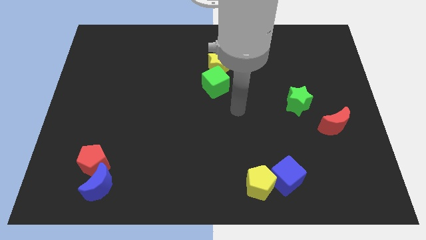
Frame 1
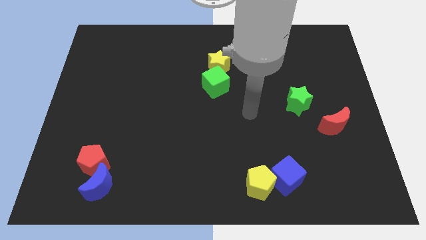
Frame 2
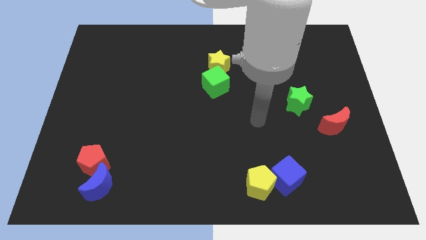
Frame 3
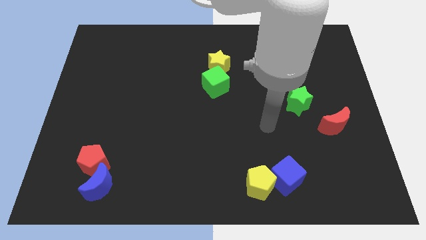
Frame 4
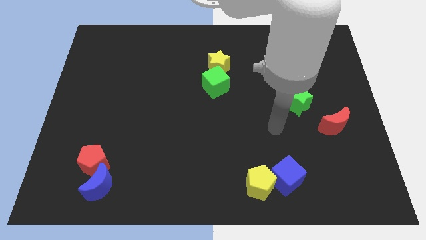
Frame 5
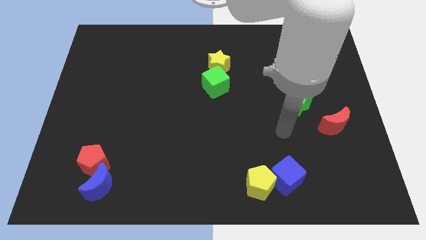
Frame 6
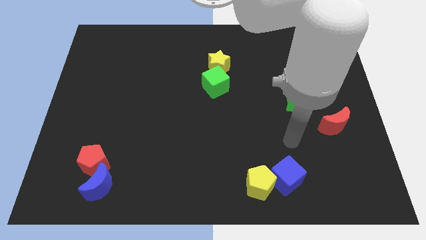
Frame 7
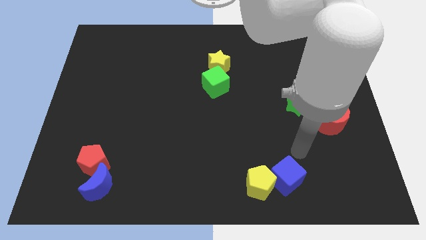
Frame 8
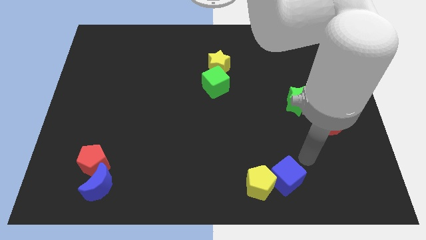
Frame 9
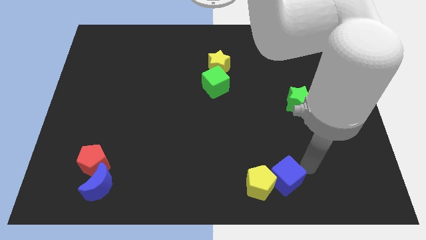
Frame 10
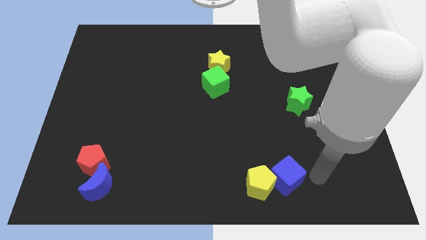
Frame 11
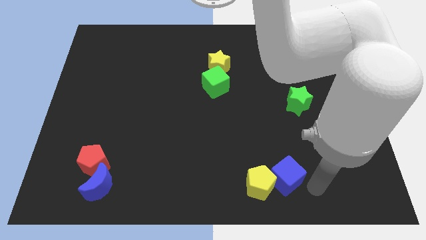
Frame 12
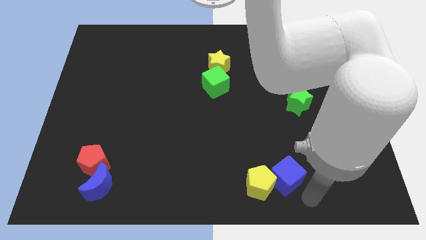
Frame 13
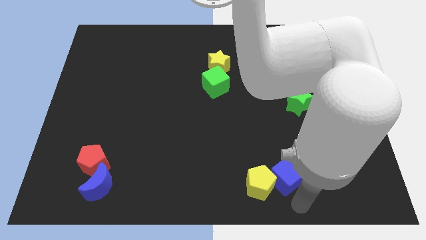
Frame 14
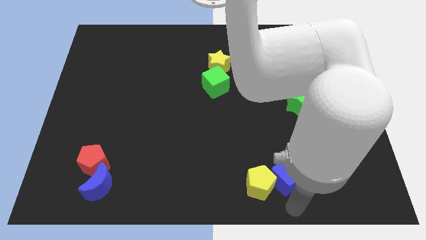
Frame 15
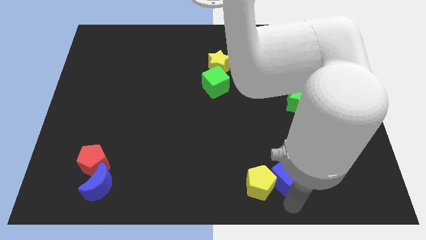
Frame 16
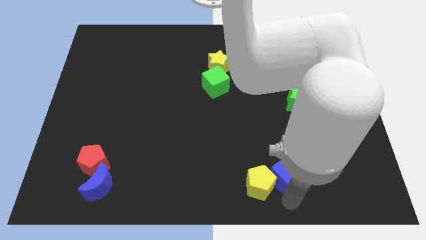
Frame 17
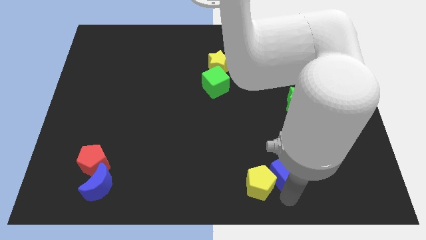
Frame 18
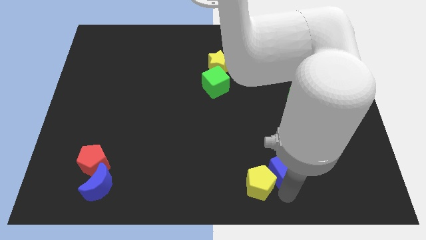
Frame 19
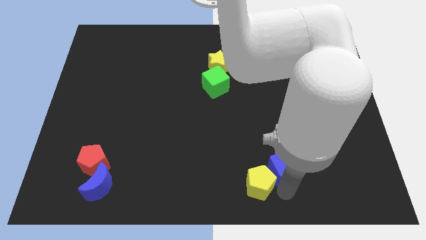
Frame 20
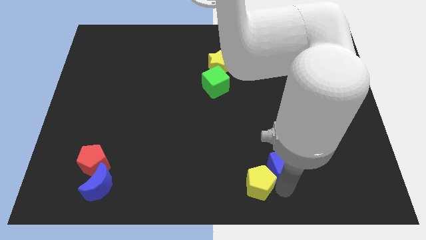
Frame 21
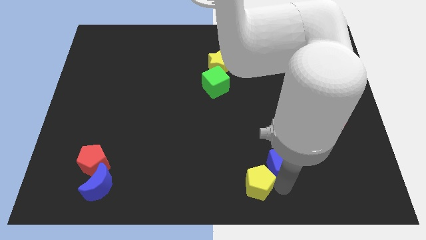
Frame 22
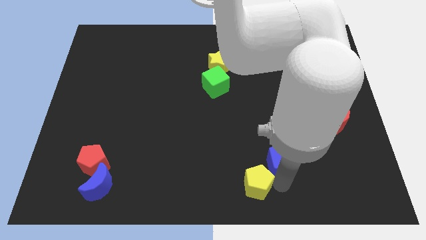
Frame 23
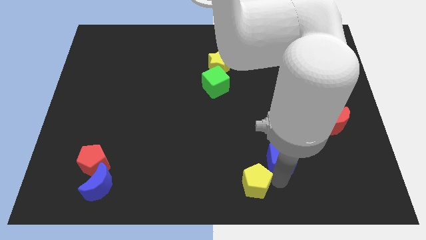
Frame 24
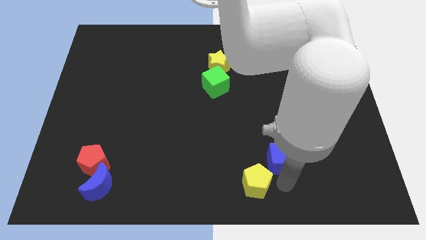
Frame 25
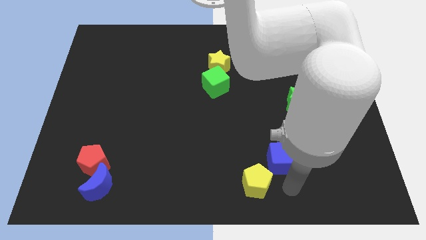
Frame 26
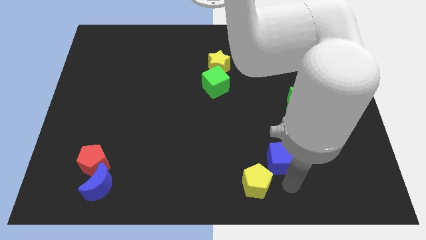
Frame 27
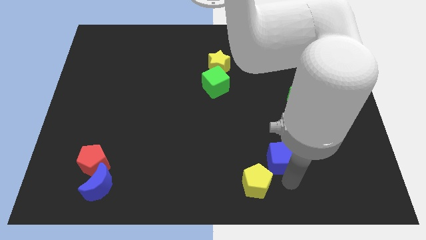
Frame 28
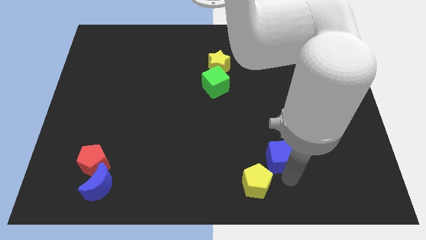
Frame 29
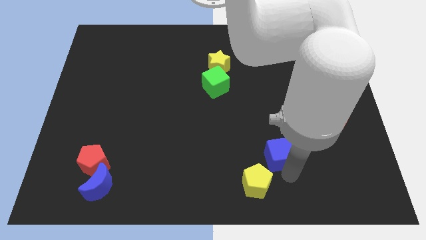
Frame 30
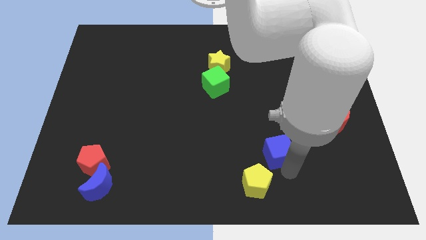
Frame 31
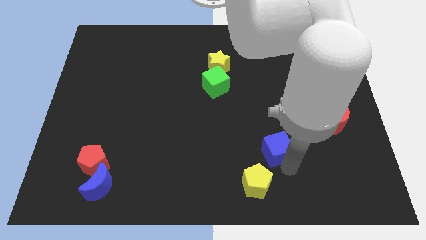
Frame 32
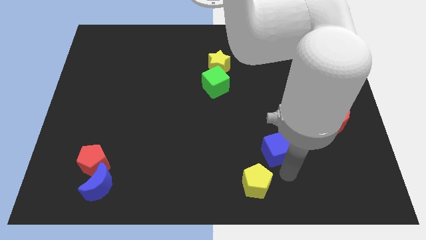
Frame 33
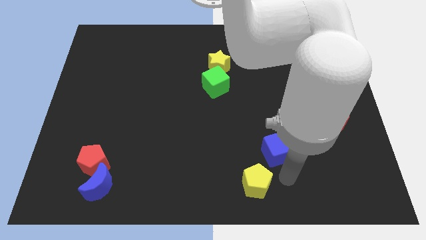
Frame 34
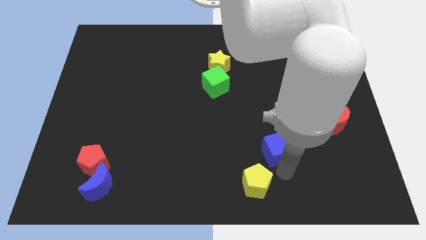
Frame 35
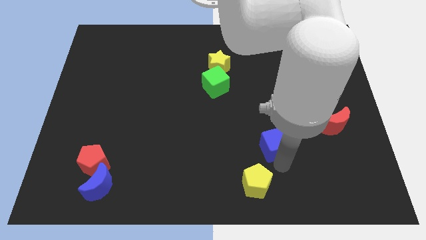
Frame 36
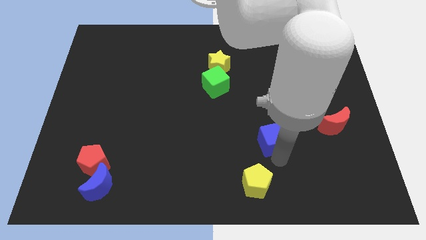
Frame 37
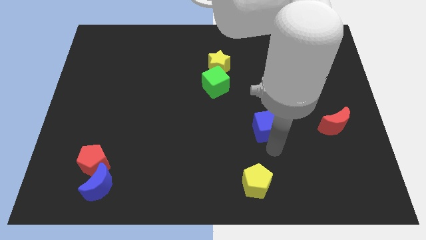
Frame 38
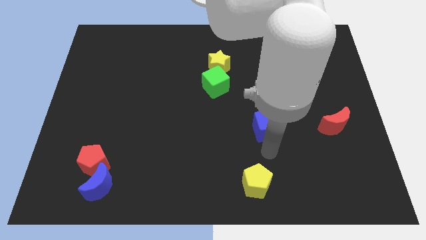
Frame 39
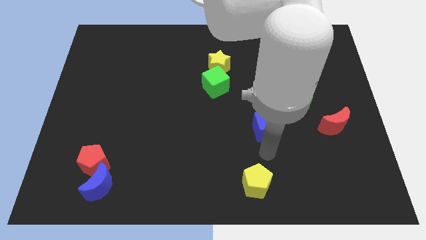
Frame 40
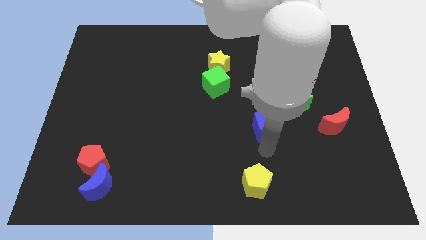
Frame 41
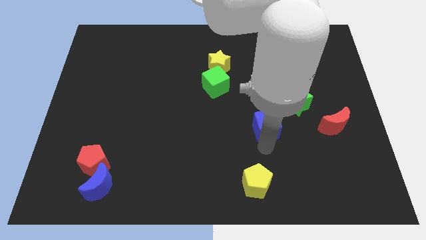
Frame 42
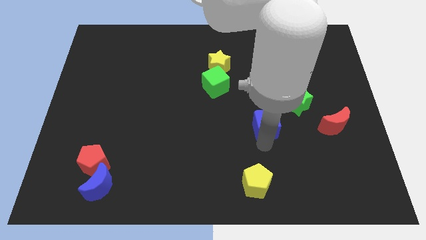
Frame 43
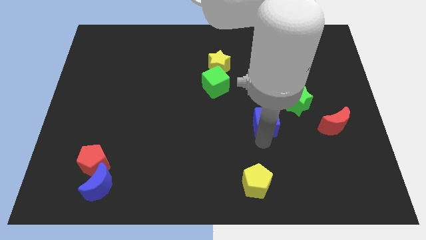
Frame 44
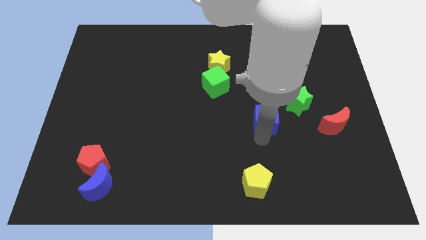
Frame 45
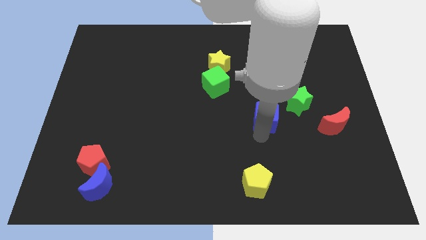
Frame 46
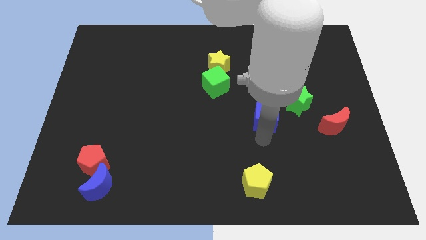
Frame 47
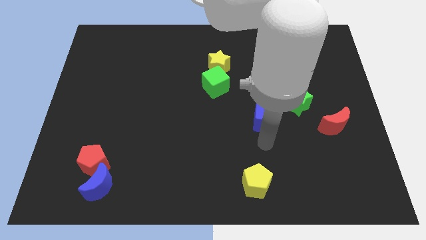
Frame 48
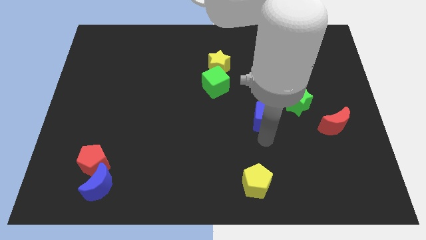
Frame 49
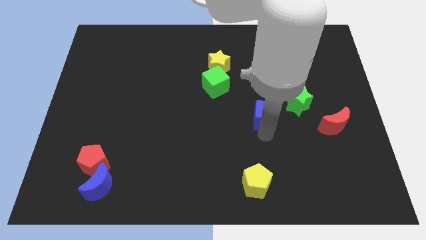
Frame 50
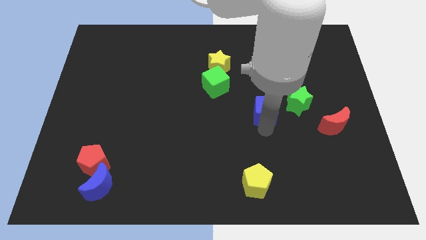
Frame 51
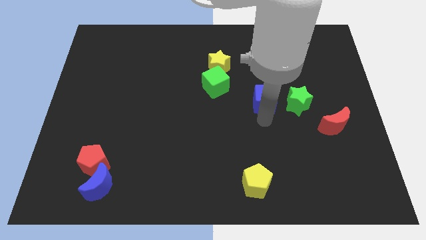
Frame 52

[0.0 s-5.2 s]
slide the blue cube up

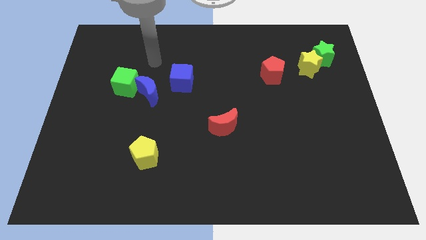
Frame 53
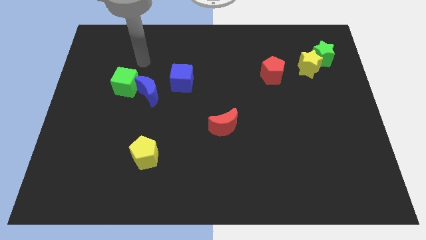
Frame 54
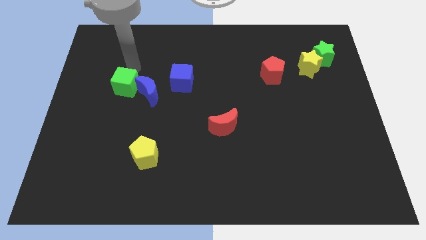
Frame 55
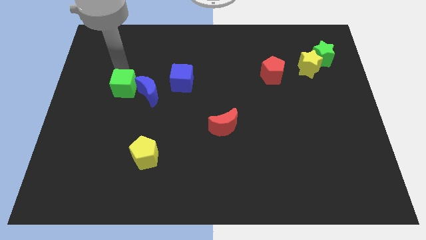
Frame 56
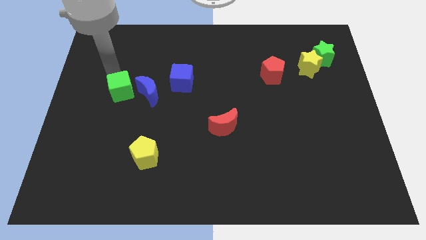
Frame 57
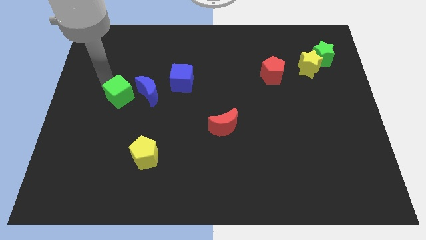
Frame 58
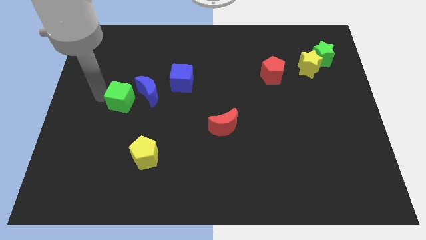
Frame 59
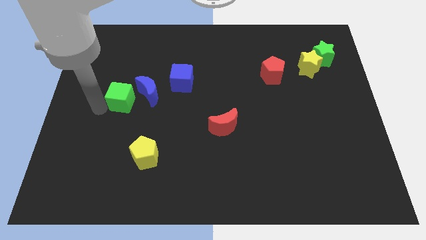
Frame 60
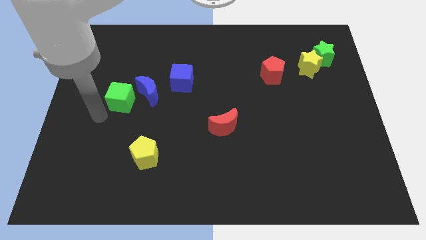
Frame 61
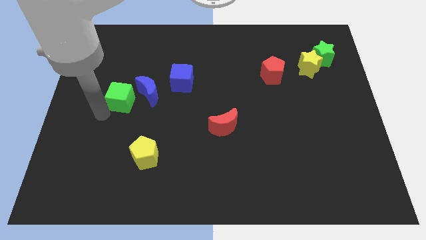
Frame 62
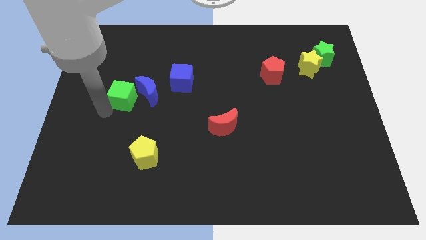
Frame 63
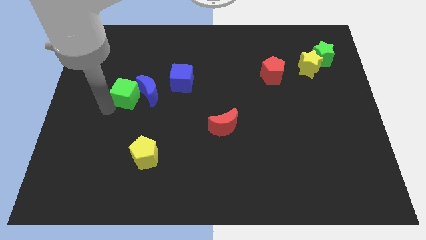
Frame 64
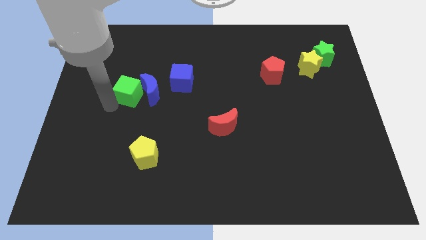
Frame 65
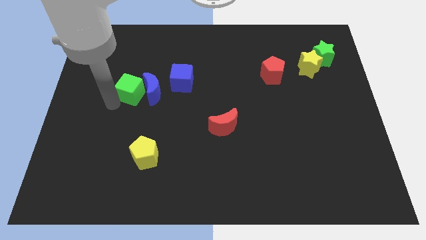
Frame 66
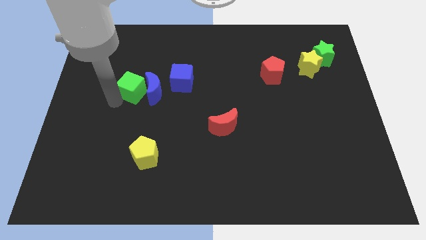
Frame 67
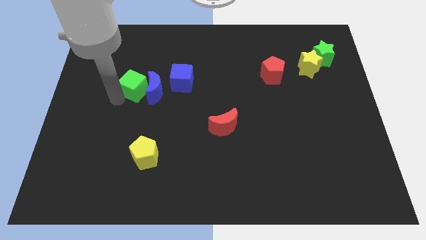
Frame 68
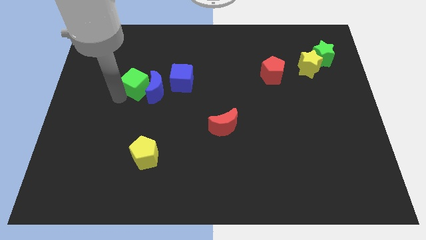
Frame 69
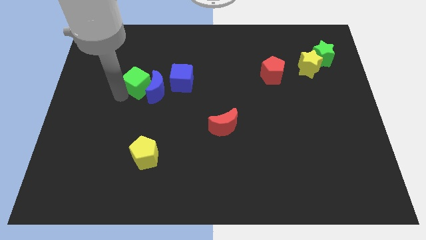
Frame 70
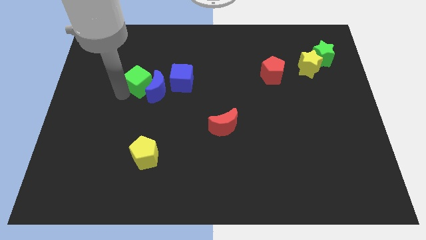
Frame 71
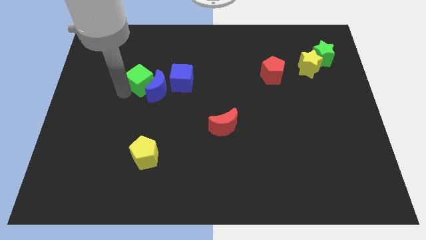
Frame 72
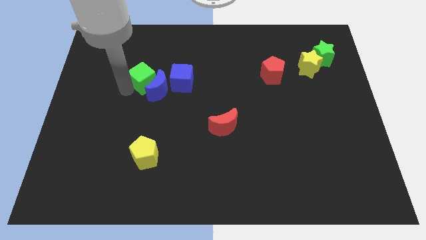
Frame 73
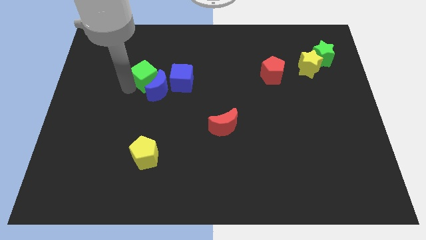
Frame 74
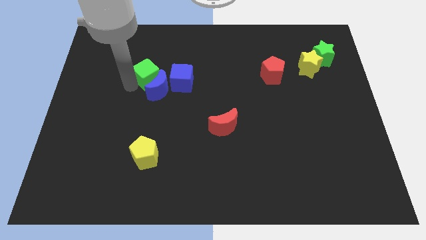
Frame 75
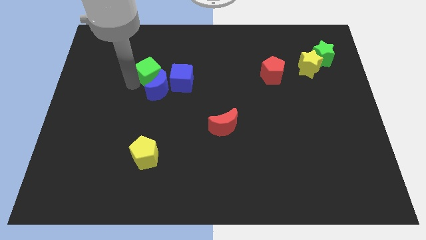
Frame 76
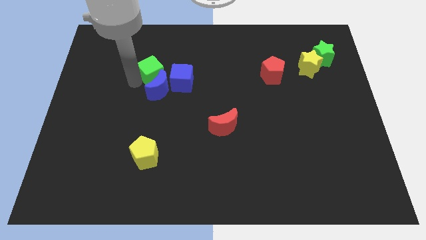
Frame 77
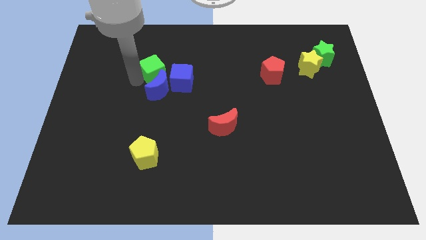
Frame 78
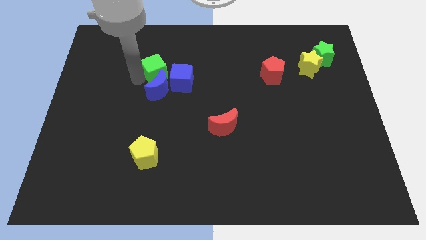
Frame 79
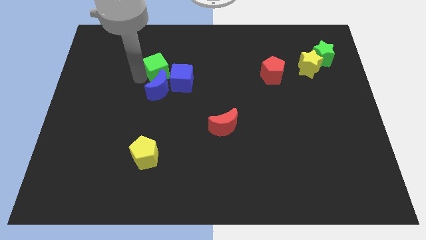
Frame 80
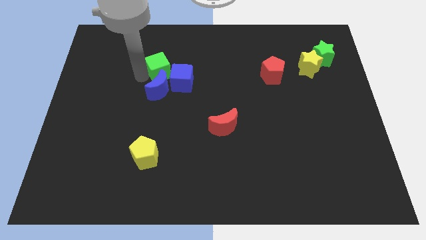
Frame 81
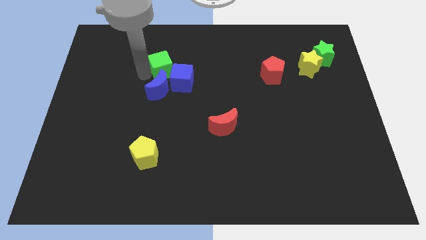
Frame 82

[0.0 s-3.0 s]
move the green cube somewhat right
